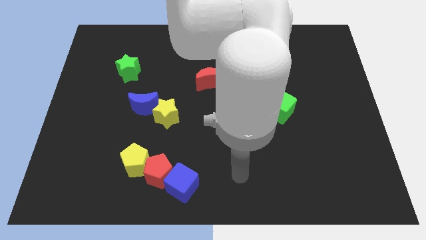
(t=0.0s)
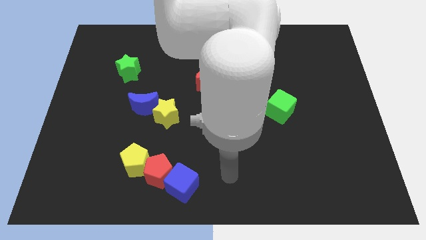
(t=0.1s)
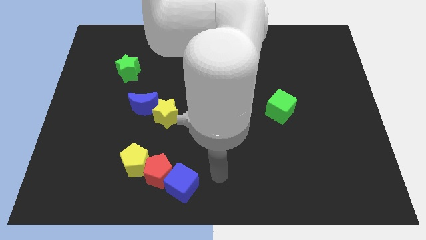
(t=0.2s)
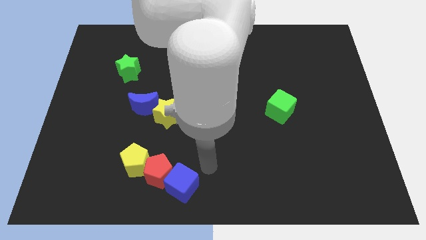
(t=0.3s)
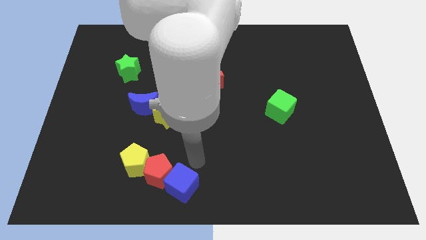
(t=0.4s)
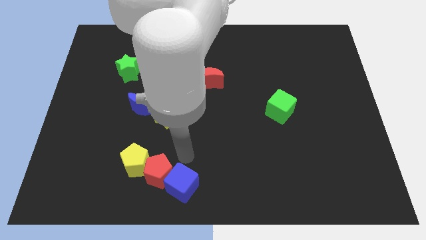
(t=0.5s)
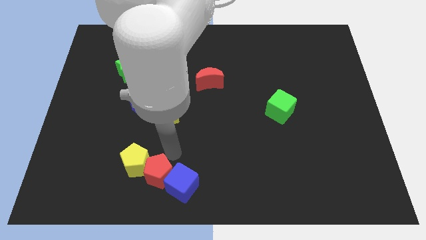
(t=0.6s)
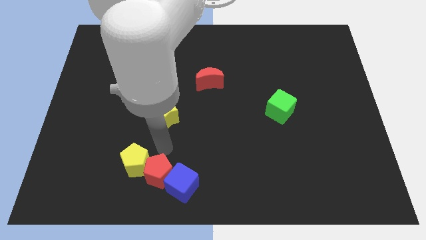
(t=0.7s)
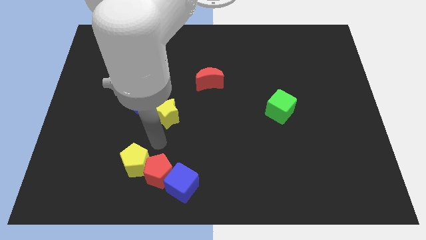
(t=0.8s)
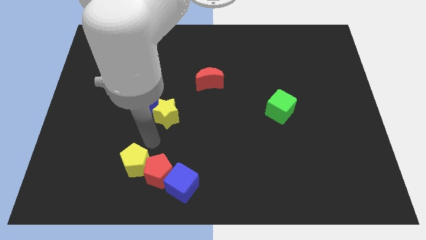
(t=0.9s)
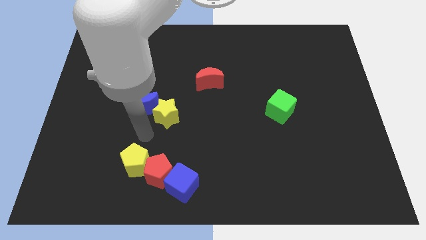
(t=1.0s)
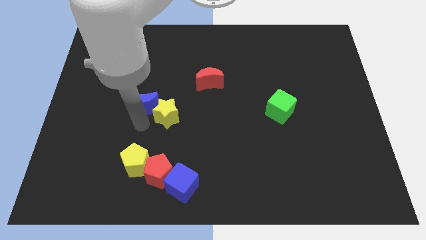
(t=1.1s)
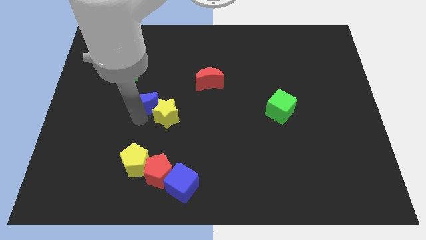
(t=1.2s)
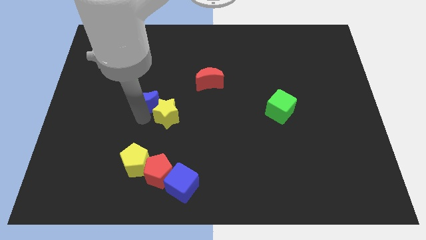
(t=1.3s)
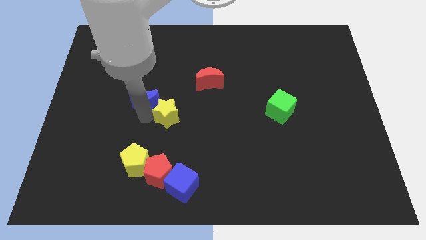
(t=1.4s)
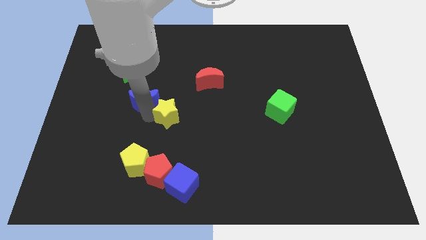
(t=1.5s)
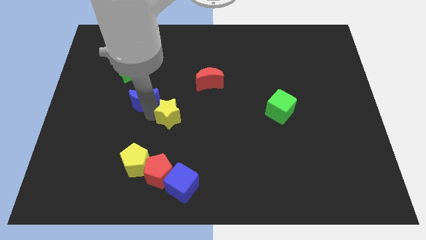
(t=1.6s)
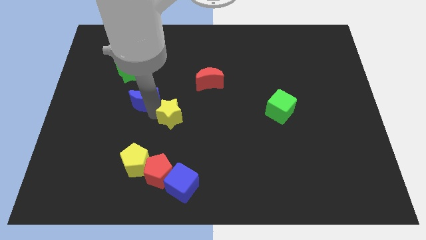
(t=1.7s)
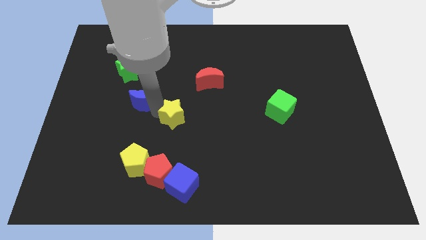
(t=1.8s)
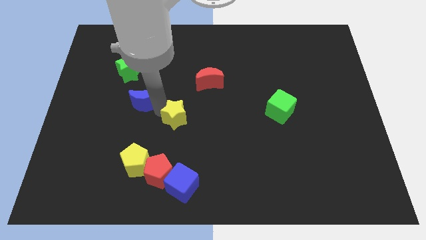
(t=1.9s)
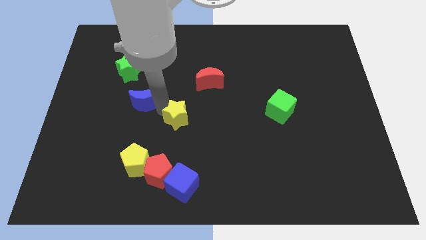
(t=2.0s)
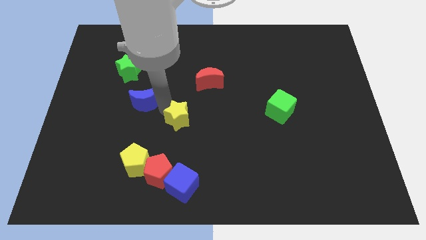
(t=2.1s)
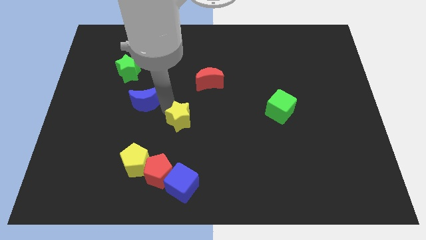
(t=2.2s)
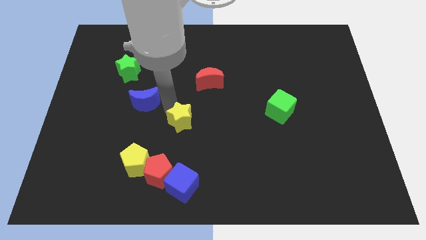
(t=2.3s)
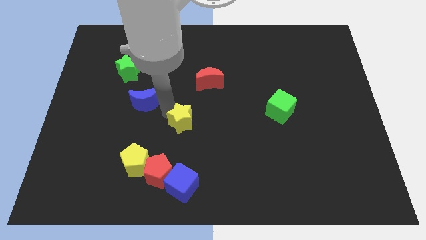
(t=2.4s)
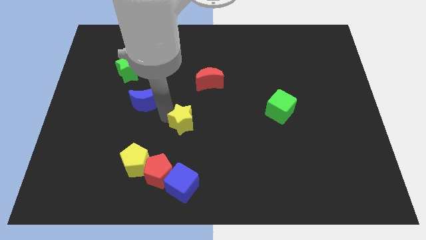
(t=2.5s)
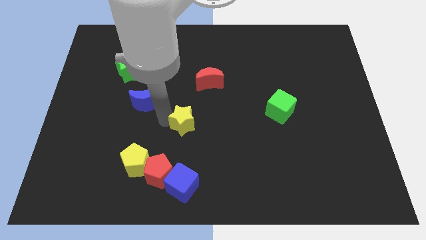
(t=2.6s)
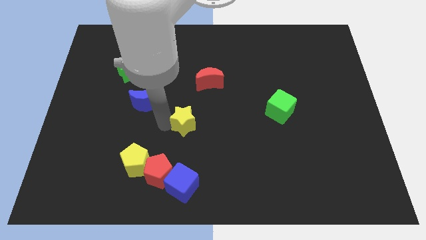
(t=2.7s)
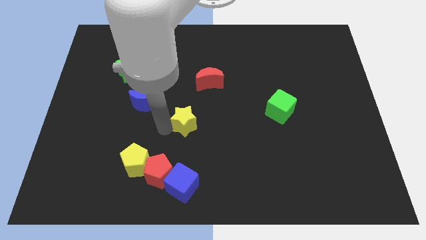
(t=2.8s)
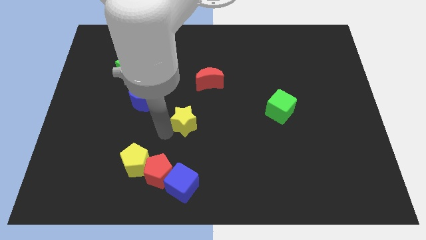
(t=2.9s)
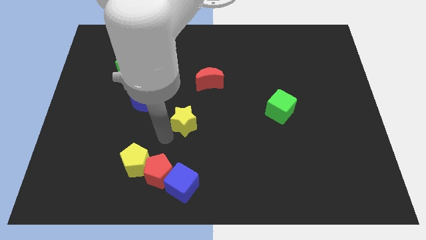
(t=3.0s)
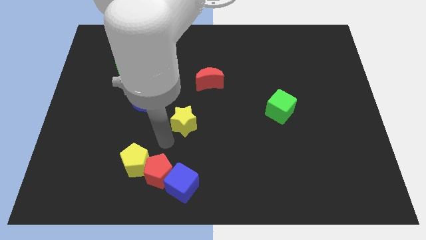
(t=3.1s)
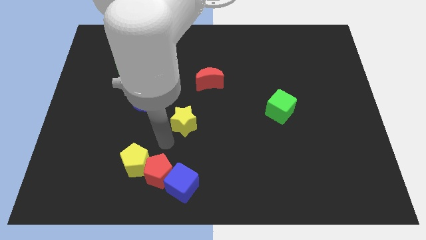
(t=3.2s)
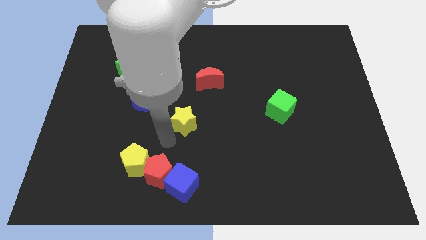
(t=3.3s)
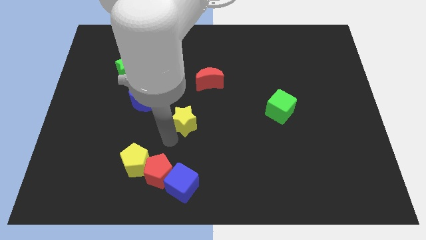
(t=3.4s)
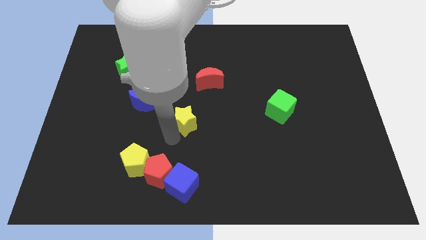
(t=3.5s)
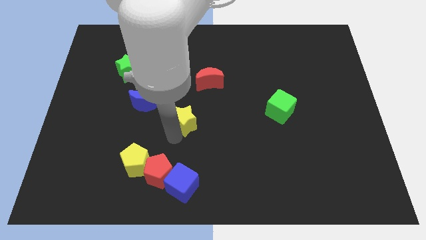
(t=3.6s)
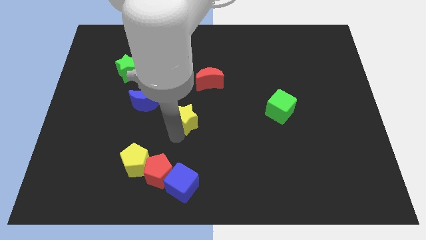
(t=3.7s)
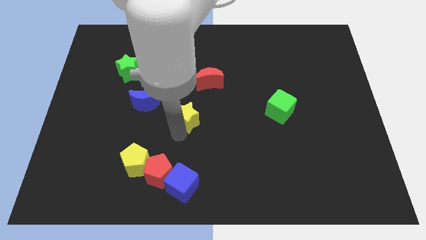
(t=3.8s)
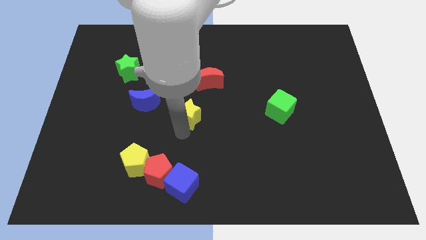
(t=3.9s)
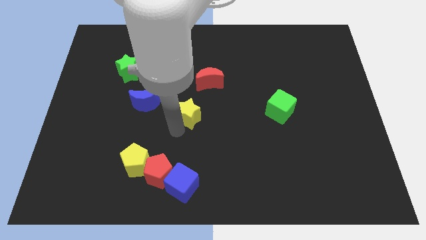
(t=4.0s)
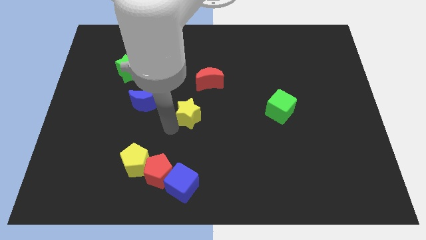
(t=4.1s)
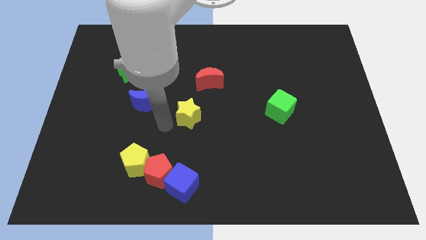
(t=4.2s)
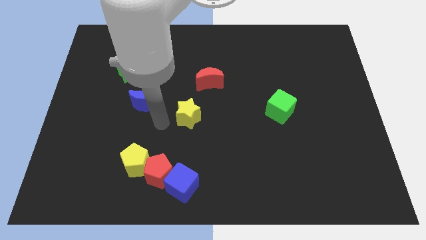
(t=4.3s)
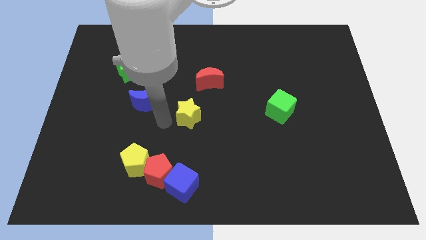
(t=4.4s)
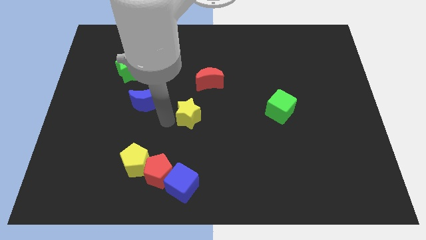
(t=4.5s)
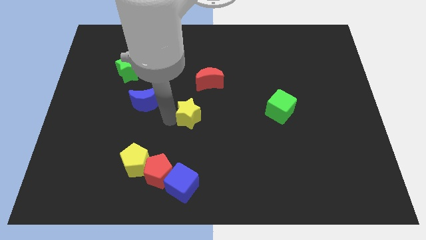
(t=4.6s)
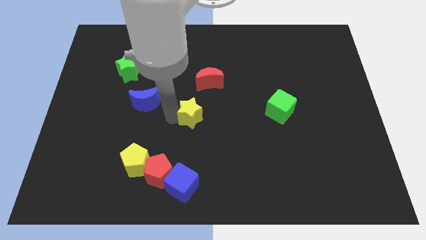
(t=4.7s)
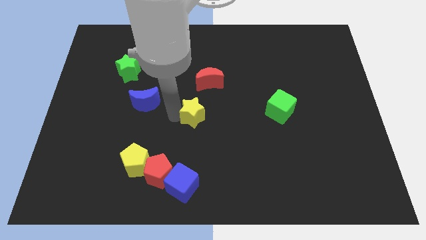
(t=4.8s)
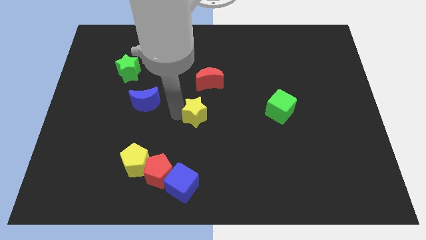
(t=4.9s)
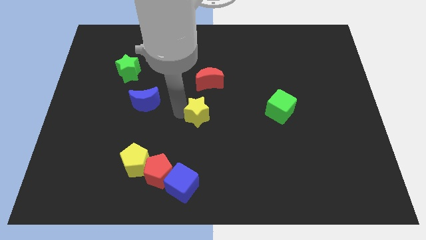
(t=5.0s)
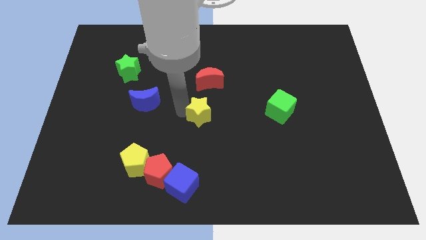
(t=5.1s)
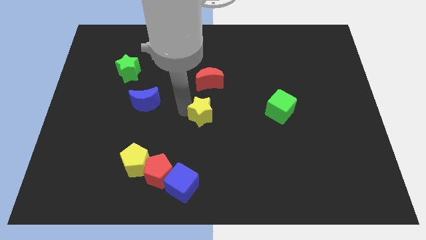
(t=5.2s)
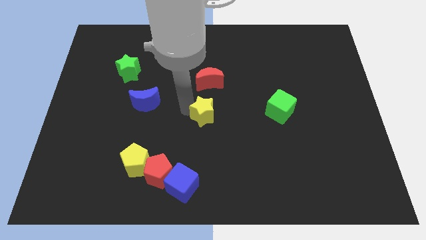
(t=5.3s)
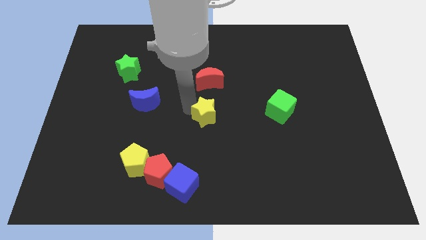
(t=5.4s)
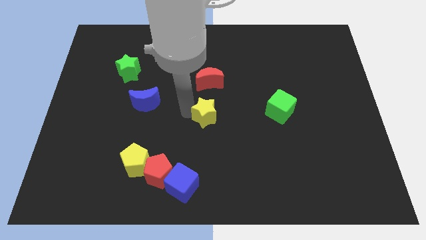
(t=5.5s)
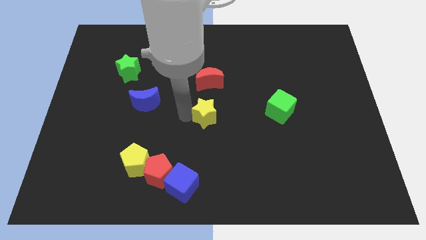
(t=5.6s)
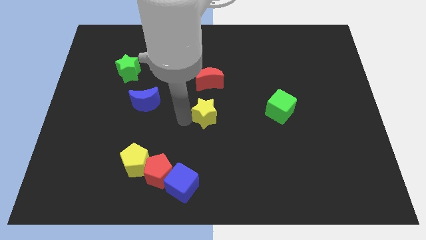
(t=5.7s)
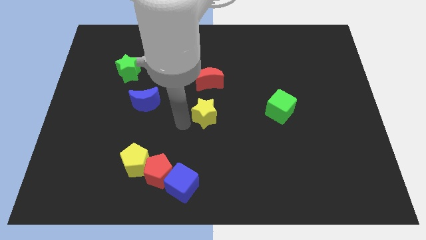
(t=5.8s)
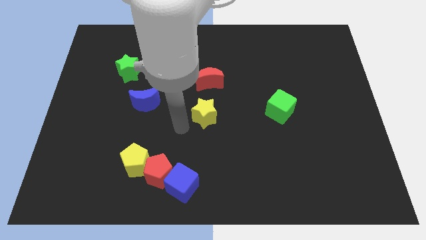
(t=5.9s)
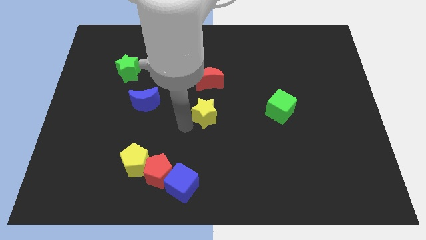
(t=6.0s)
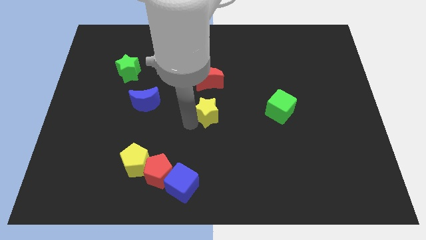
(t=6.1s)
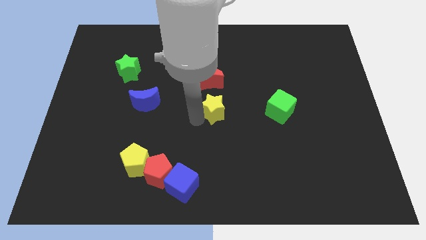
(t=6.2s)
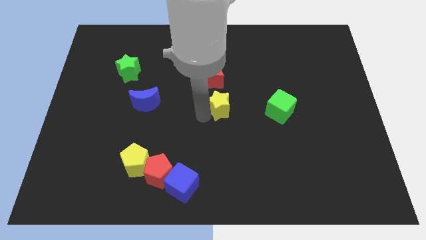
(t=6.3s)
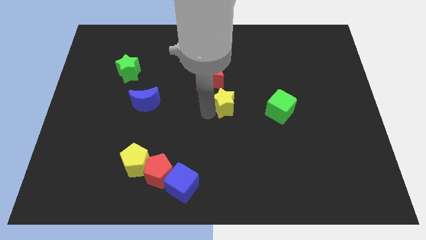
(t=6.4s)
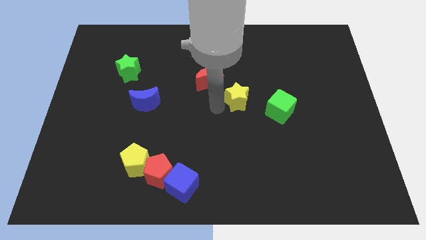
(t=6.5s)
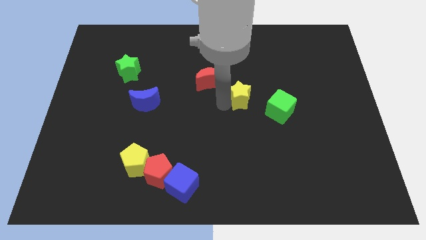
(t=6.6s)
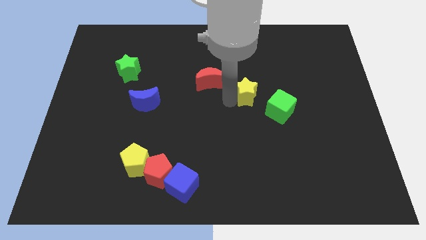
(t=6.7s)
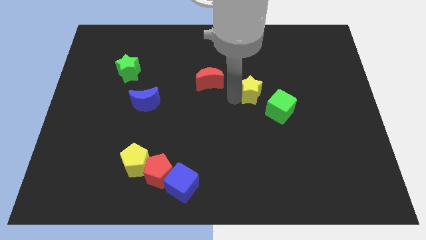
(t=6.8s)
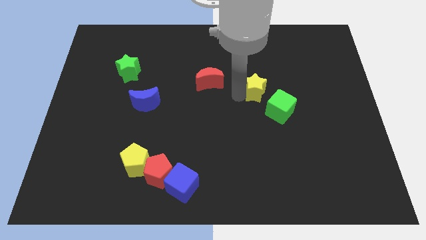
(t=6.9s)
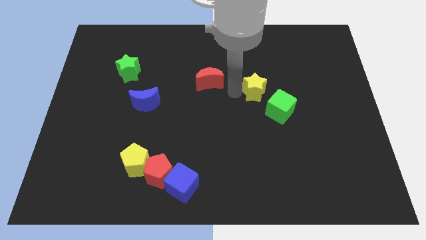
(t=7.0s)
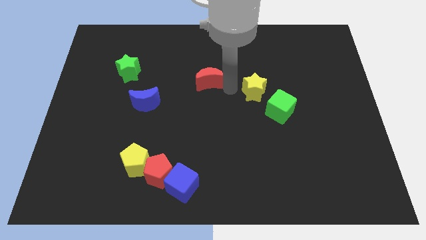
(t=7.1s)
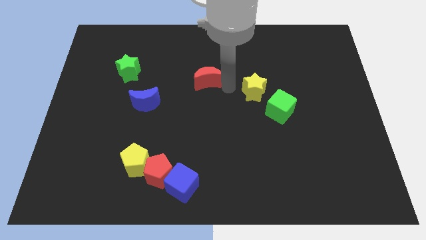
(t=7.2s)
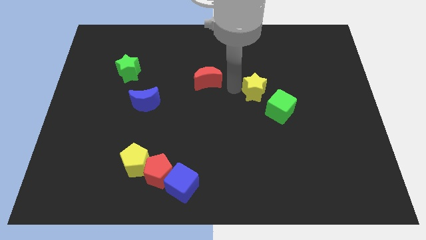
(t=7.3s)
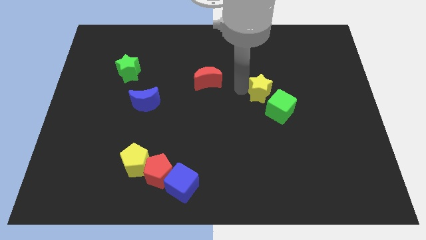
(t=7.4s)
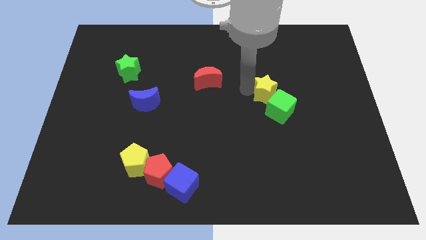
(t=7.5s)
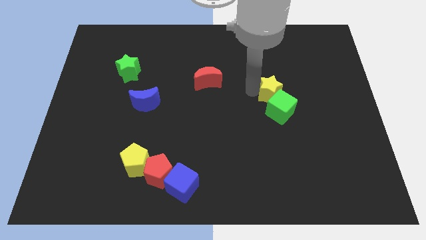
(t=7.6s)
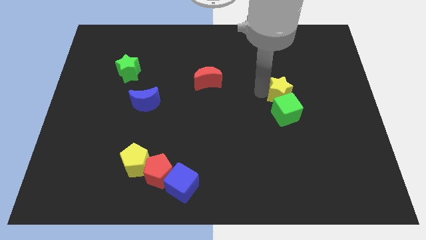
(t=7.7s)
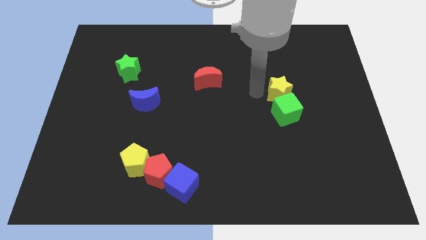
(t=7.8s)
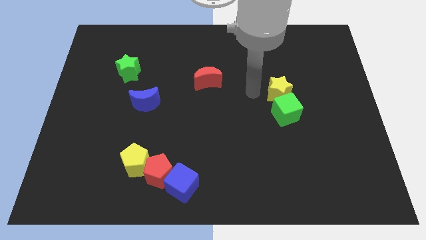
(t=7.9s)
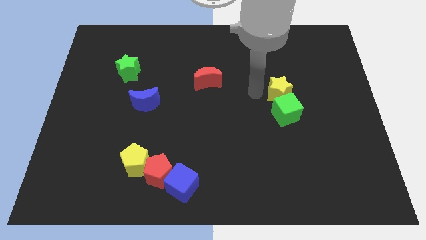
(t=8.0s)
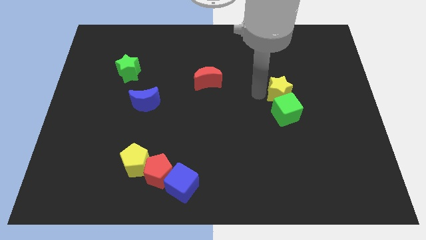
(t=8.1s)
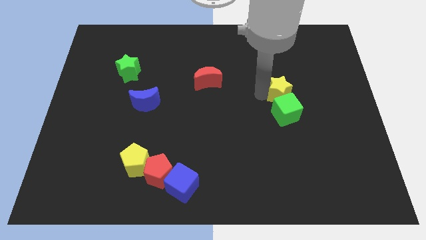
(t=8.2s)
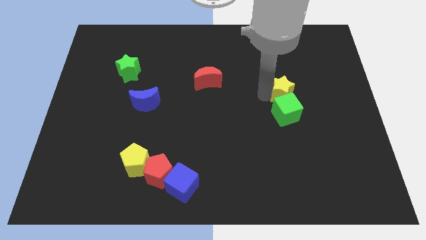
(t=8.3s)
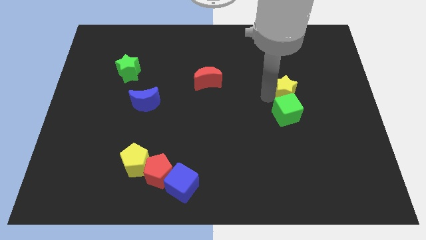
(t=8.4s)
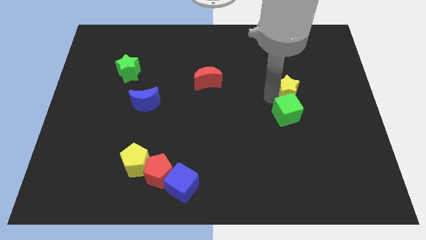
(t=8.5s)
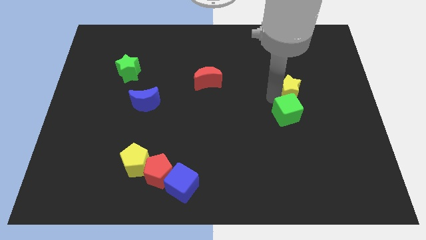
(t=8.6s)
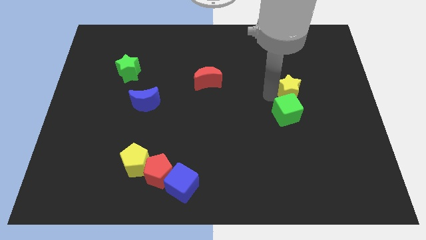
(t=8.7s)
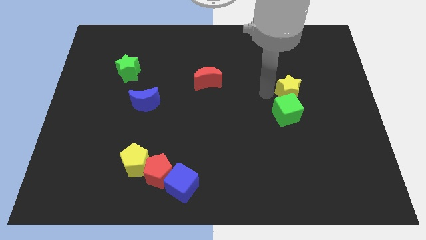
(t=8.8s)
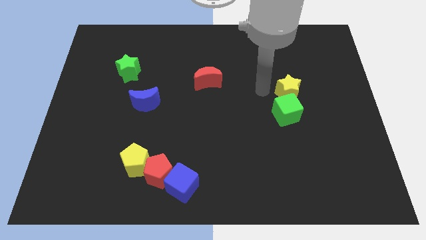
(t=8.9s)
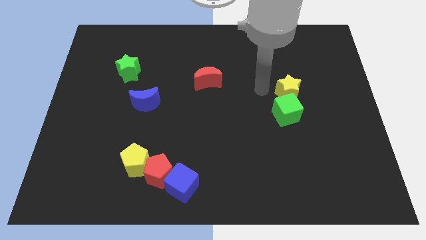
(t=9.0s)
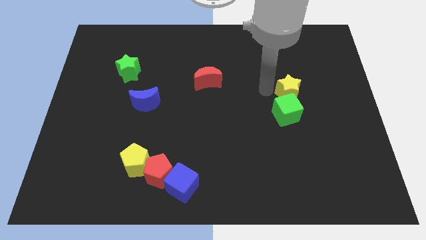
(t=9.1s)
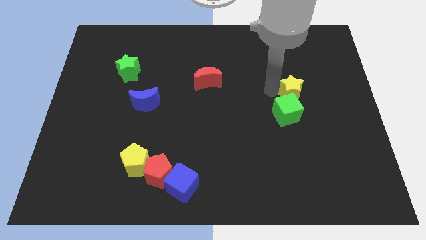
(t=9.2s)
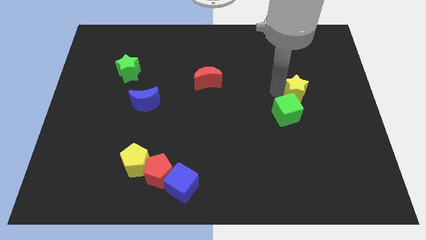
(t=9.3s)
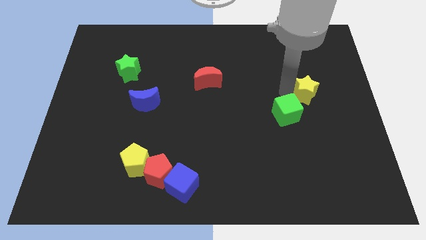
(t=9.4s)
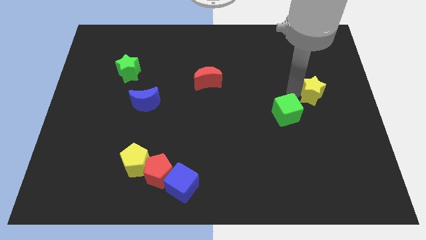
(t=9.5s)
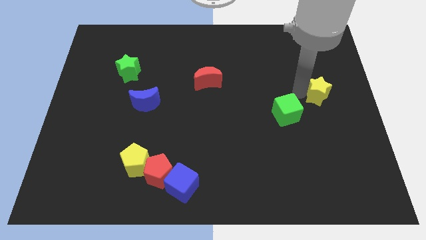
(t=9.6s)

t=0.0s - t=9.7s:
push the yellow star to the center right
